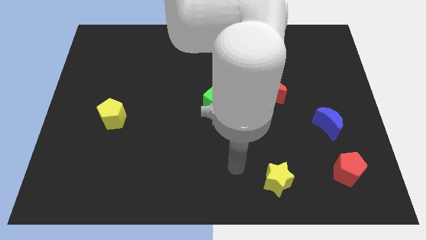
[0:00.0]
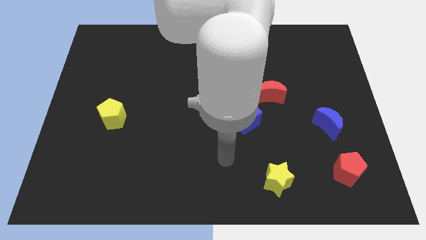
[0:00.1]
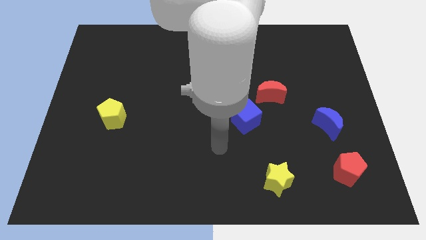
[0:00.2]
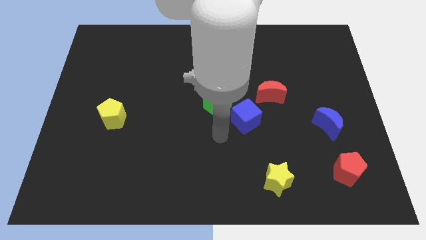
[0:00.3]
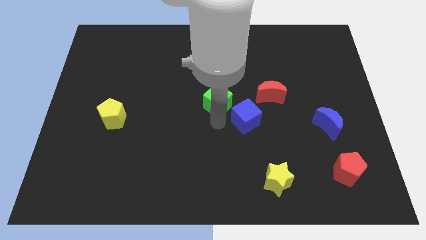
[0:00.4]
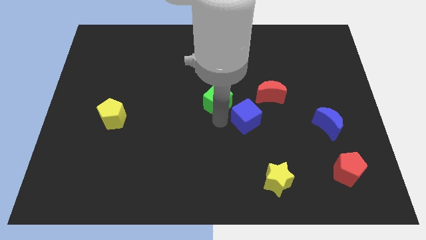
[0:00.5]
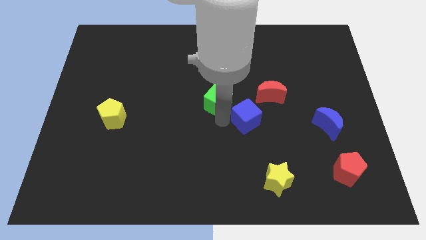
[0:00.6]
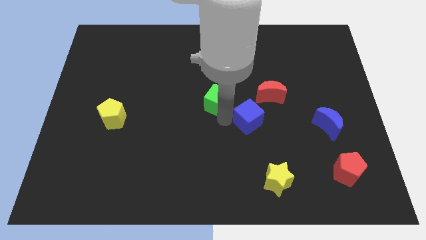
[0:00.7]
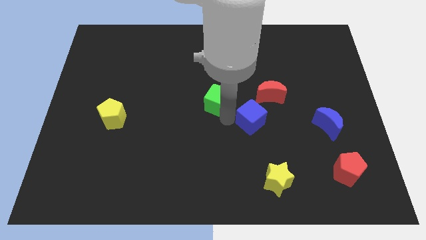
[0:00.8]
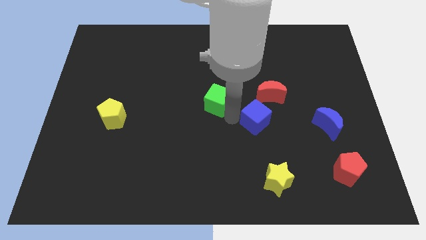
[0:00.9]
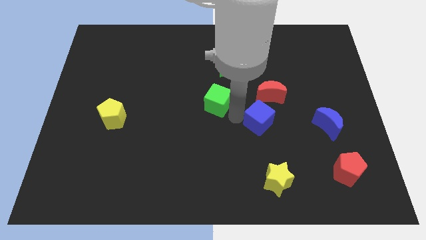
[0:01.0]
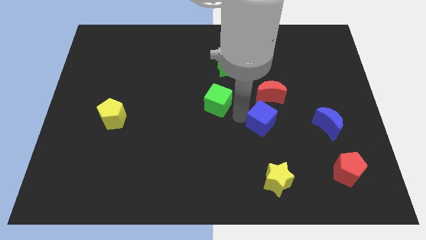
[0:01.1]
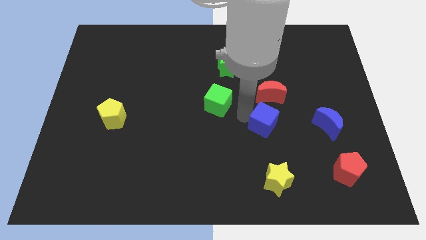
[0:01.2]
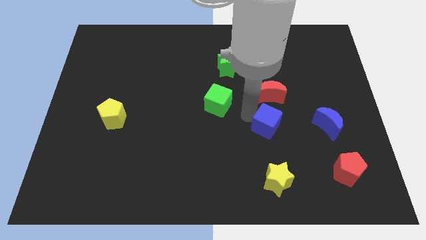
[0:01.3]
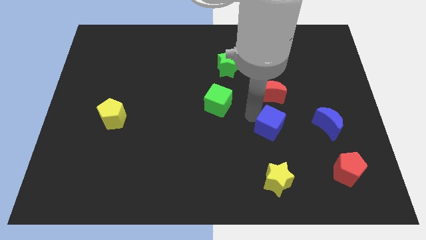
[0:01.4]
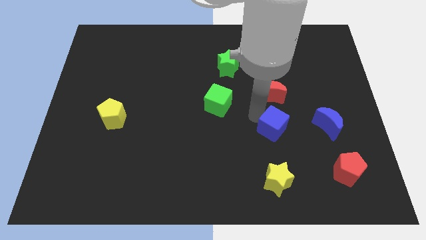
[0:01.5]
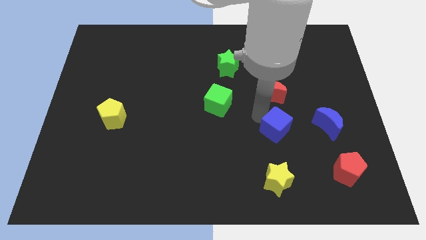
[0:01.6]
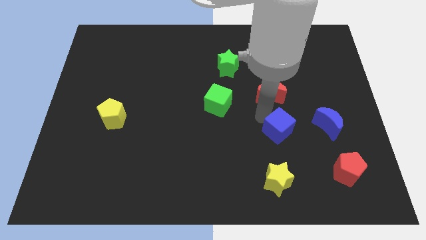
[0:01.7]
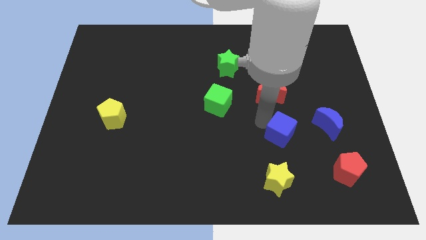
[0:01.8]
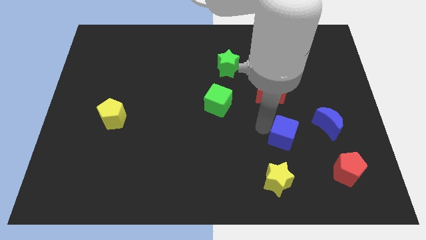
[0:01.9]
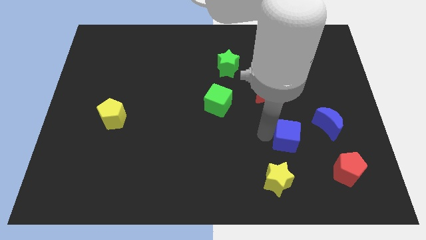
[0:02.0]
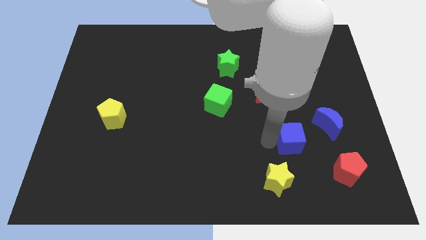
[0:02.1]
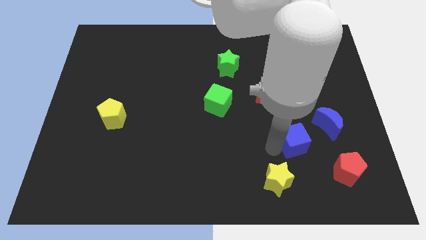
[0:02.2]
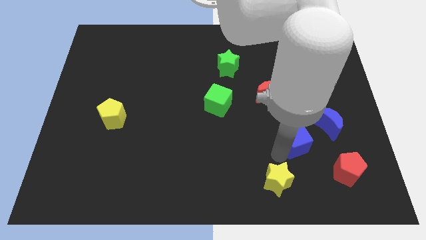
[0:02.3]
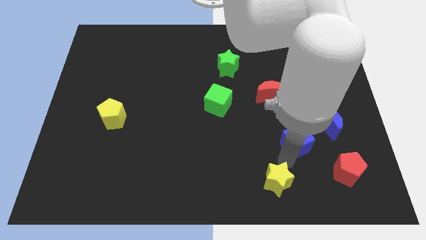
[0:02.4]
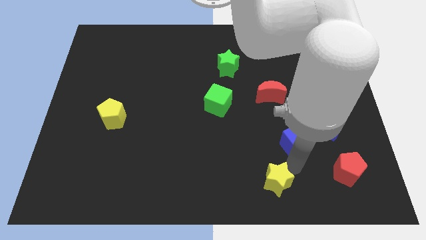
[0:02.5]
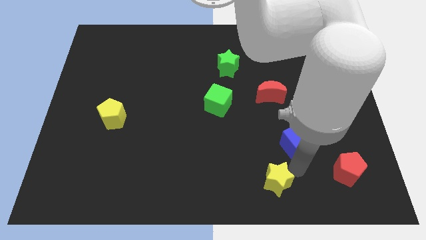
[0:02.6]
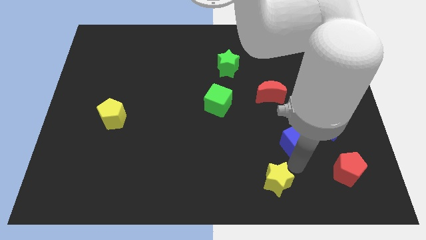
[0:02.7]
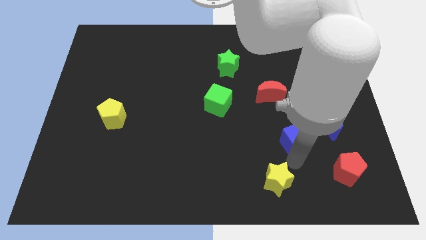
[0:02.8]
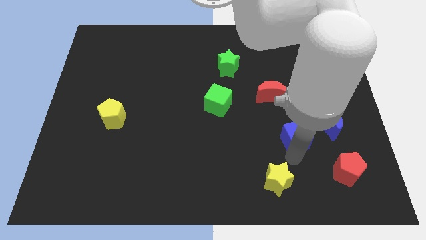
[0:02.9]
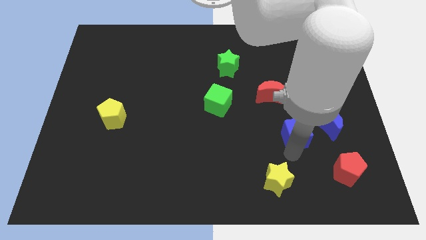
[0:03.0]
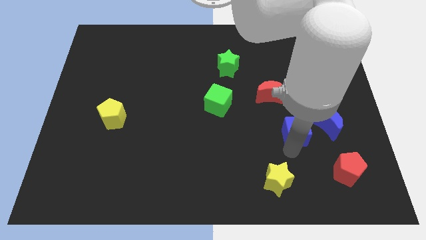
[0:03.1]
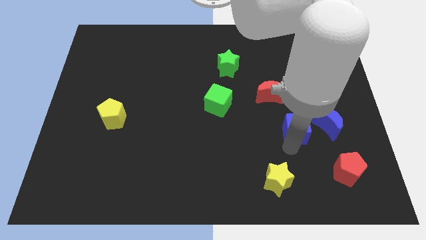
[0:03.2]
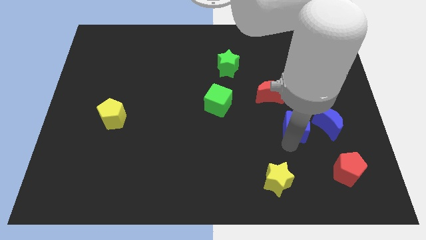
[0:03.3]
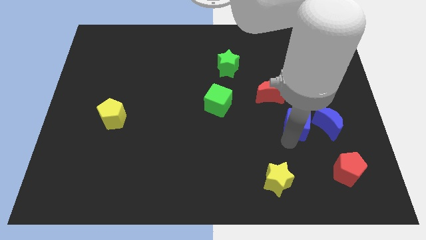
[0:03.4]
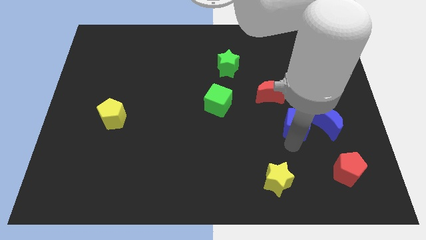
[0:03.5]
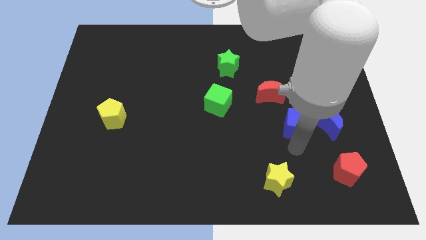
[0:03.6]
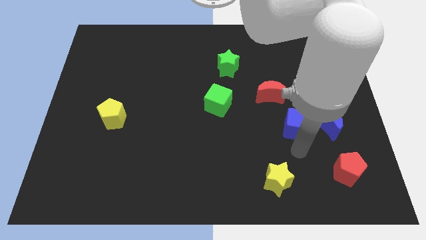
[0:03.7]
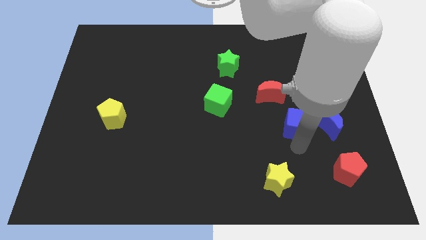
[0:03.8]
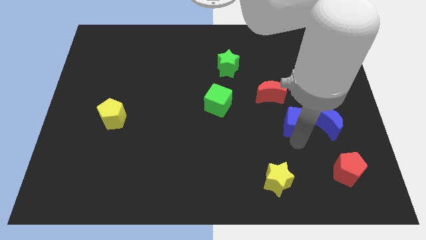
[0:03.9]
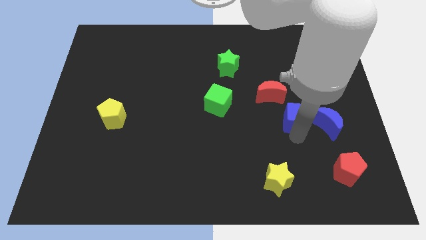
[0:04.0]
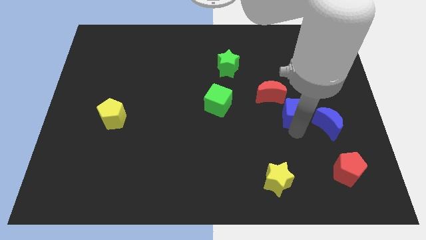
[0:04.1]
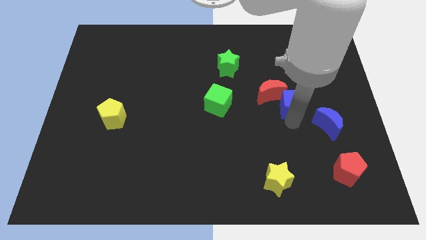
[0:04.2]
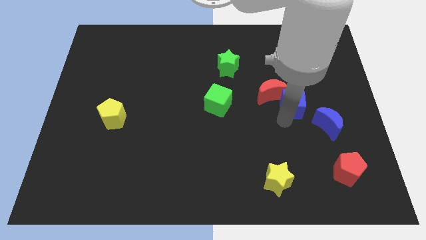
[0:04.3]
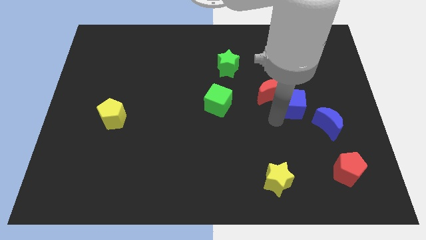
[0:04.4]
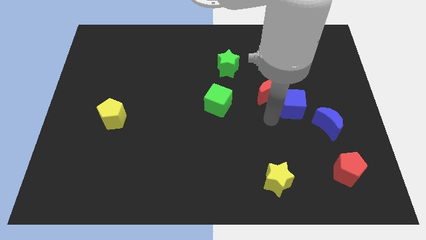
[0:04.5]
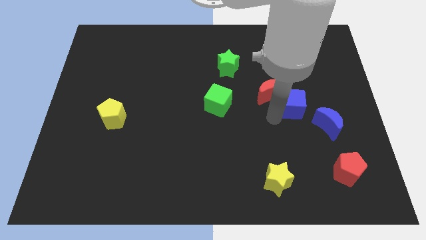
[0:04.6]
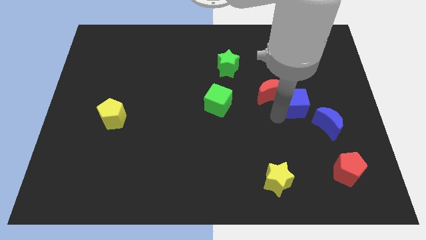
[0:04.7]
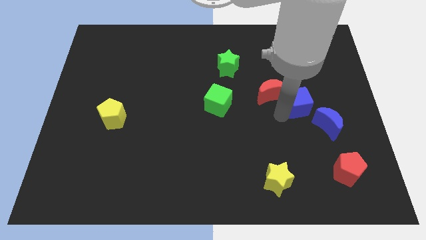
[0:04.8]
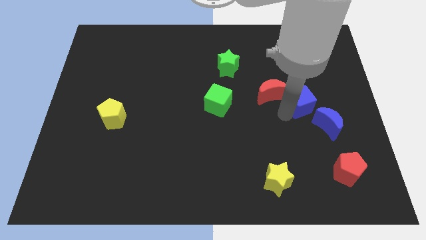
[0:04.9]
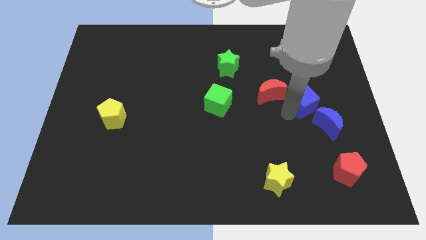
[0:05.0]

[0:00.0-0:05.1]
slide the blue cube to the top of the blue moon

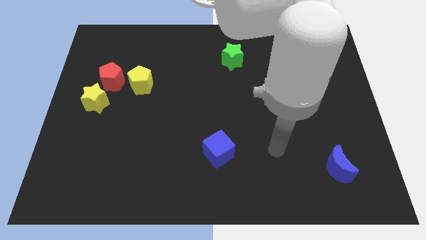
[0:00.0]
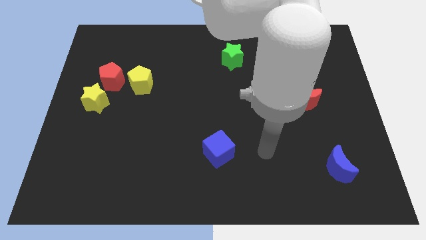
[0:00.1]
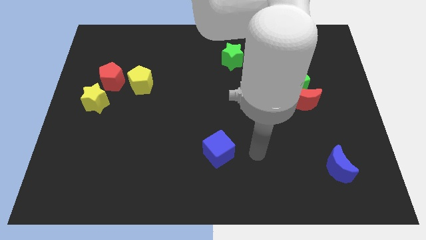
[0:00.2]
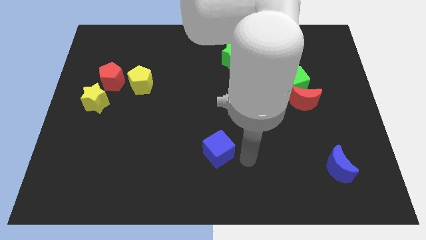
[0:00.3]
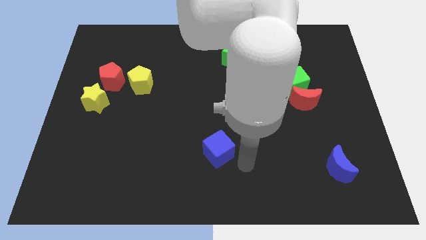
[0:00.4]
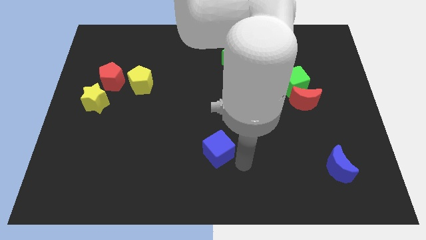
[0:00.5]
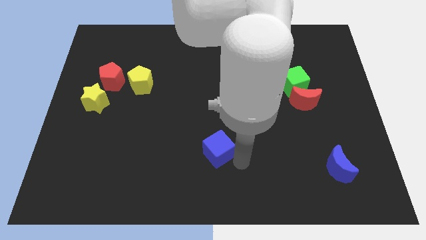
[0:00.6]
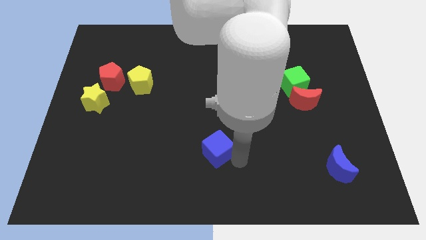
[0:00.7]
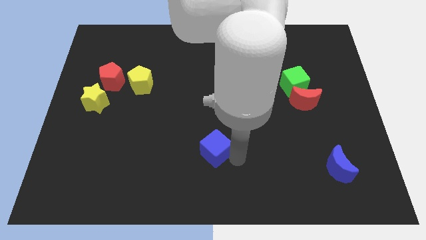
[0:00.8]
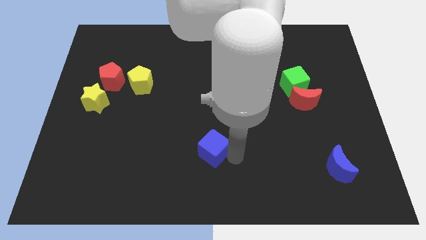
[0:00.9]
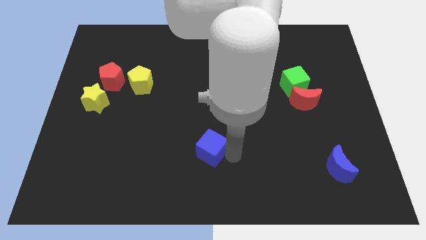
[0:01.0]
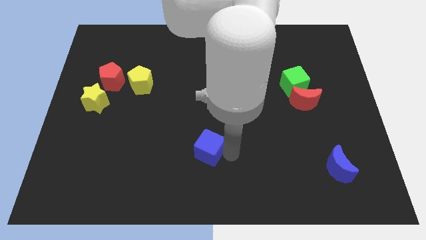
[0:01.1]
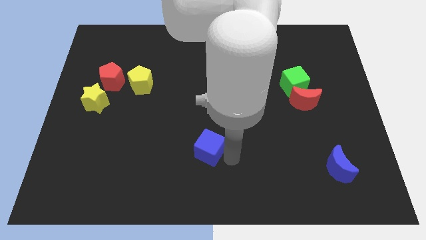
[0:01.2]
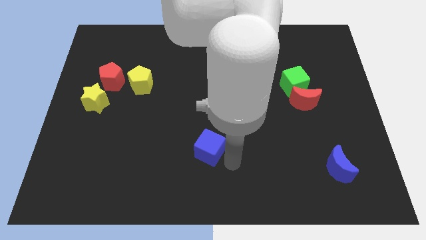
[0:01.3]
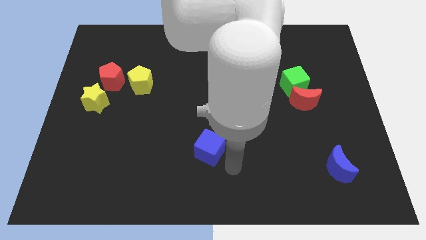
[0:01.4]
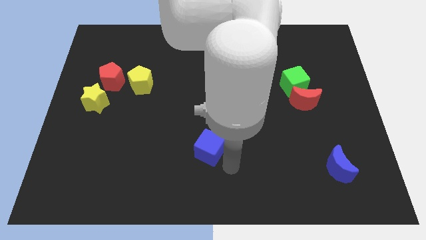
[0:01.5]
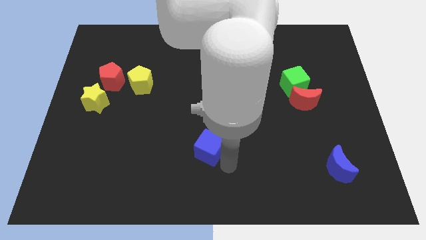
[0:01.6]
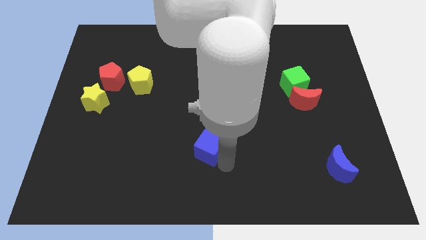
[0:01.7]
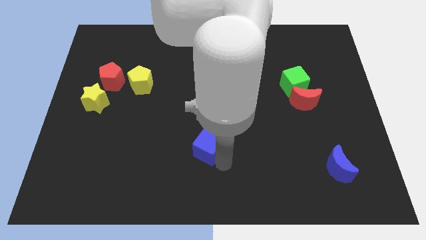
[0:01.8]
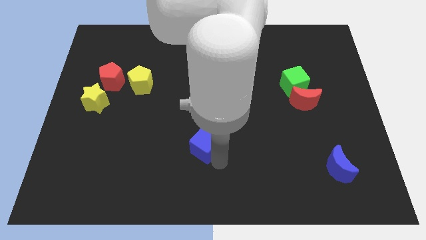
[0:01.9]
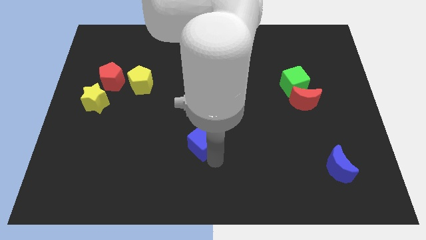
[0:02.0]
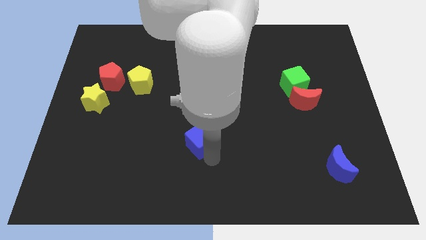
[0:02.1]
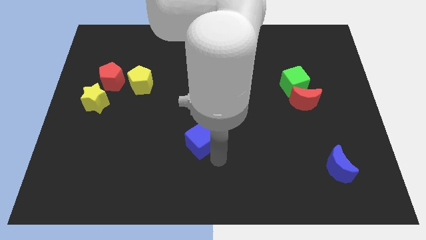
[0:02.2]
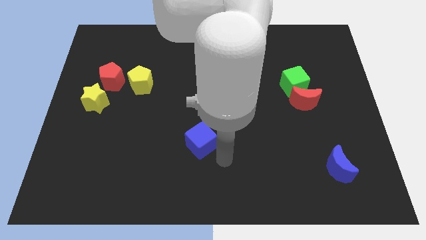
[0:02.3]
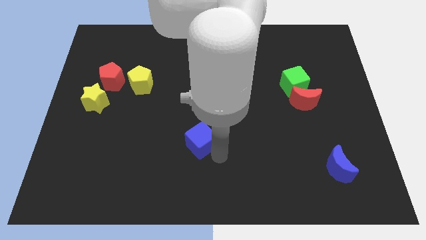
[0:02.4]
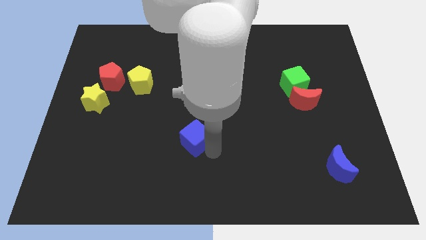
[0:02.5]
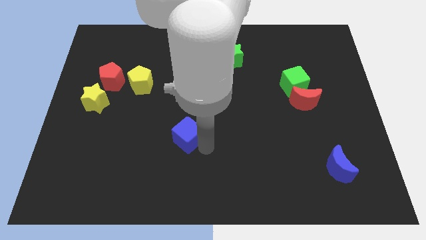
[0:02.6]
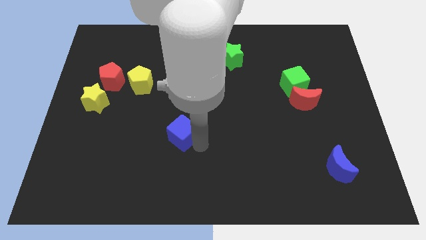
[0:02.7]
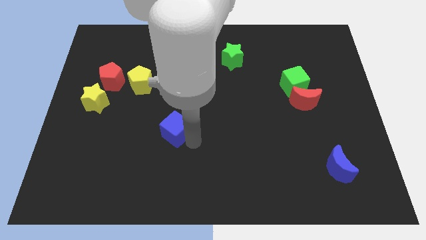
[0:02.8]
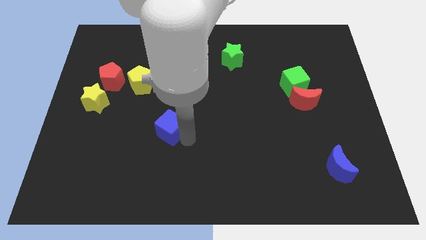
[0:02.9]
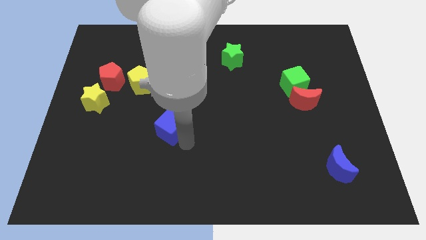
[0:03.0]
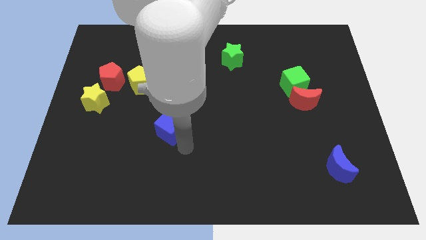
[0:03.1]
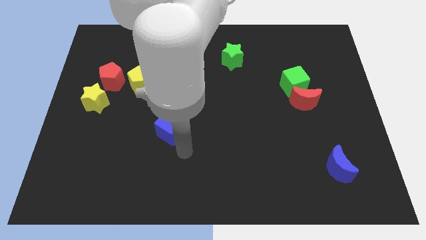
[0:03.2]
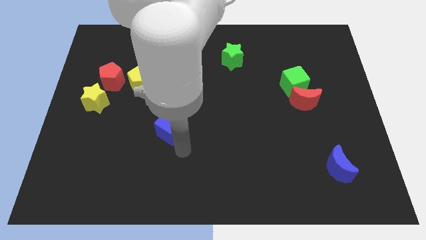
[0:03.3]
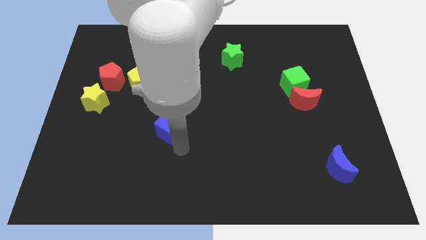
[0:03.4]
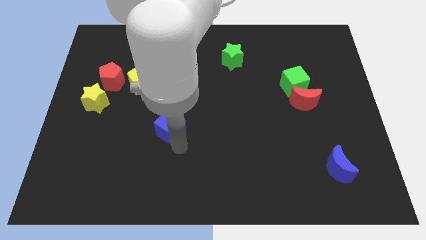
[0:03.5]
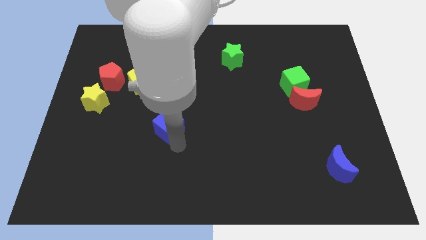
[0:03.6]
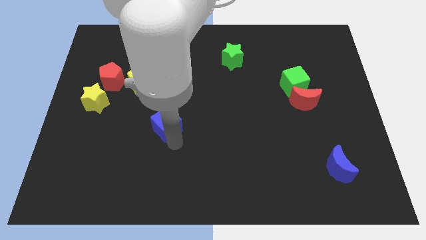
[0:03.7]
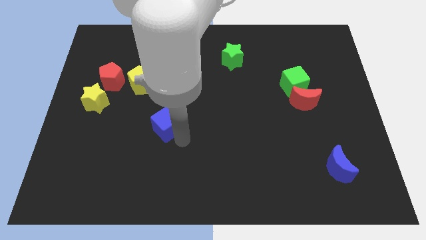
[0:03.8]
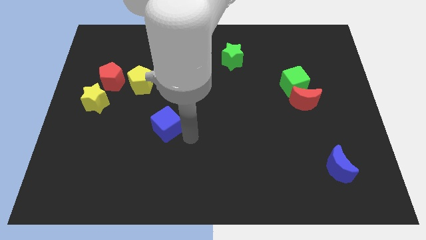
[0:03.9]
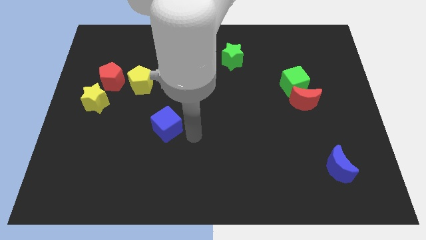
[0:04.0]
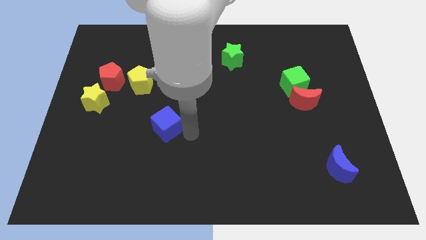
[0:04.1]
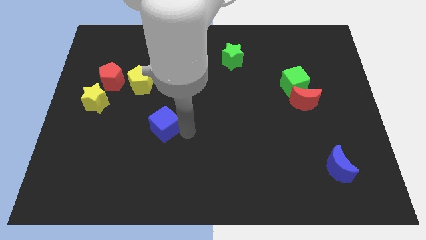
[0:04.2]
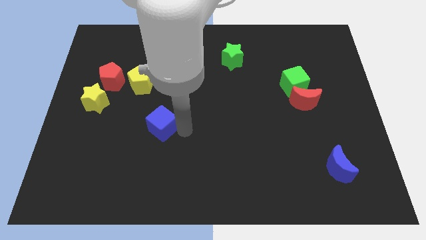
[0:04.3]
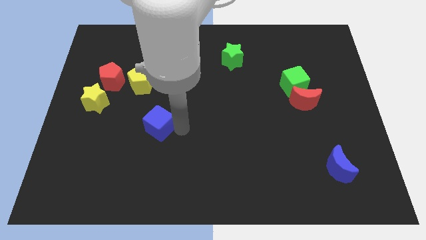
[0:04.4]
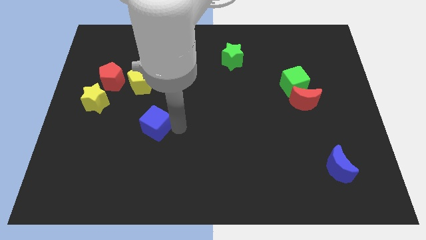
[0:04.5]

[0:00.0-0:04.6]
put the blue cube to the bottom side of the yellow pentagon
